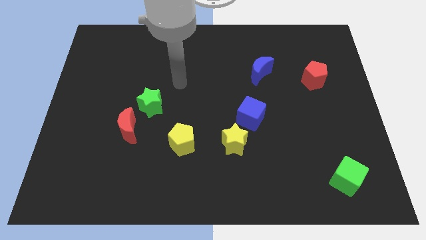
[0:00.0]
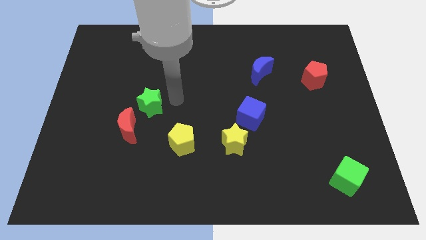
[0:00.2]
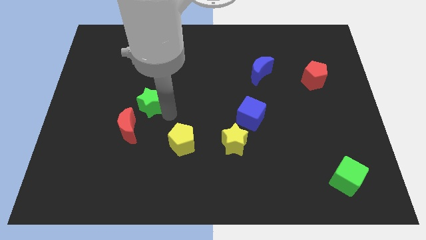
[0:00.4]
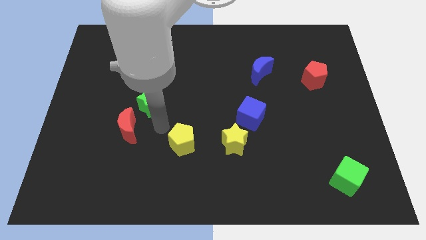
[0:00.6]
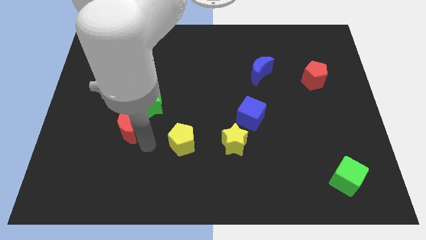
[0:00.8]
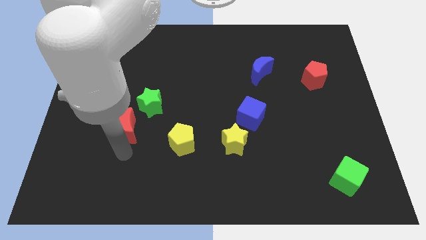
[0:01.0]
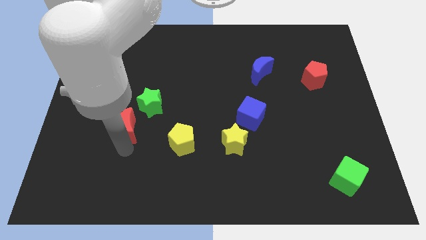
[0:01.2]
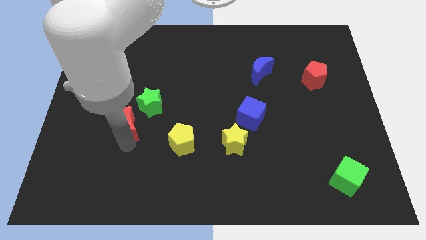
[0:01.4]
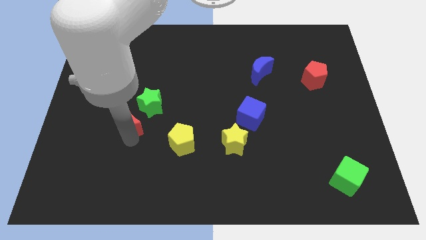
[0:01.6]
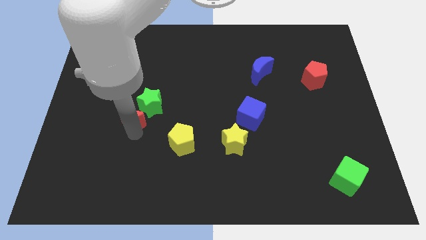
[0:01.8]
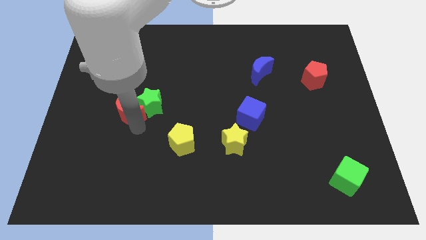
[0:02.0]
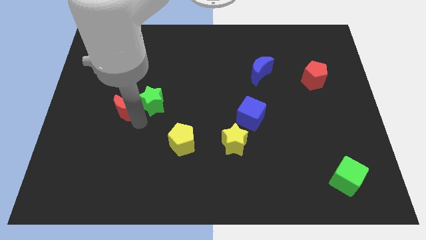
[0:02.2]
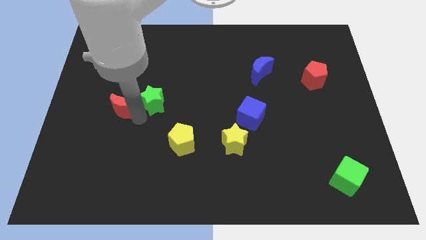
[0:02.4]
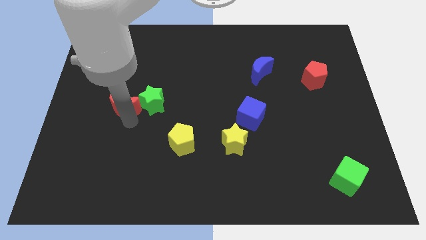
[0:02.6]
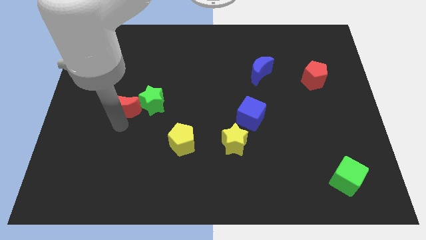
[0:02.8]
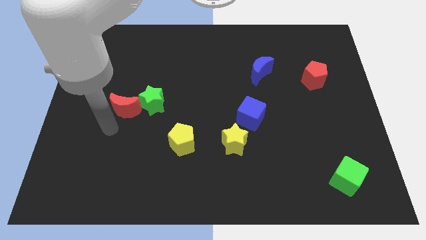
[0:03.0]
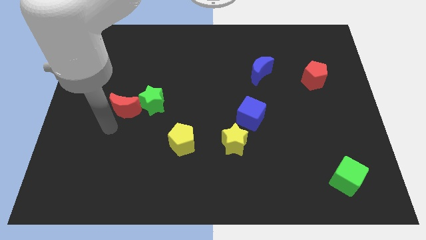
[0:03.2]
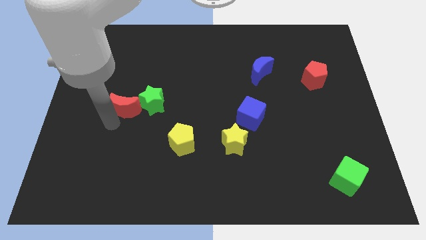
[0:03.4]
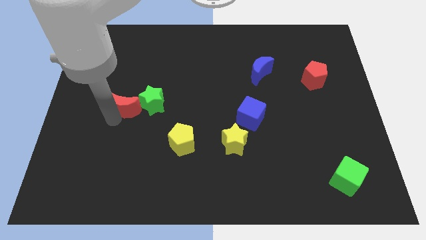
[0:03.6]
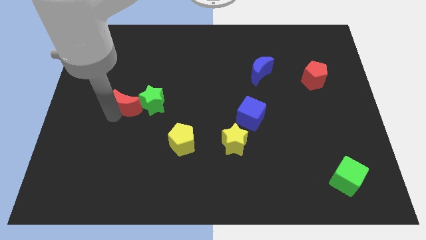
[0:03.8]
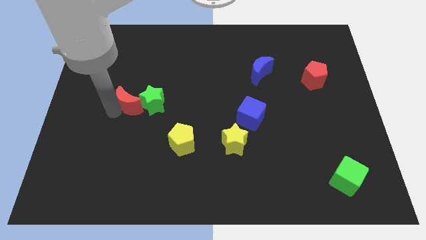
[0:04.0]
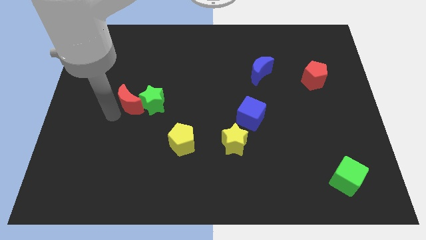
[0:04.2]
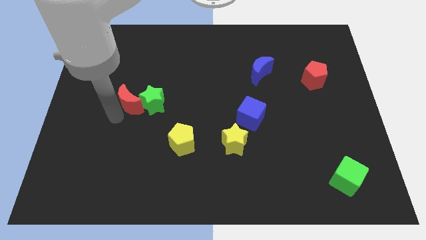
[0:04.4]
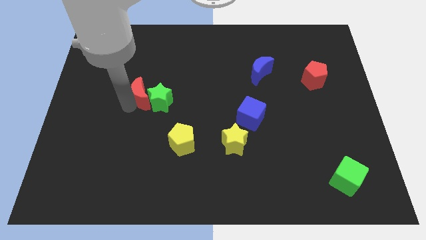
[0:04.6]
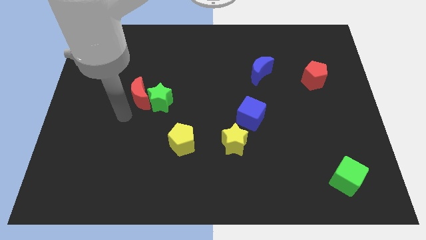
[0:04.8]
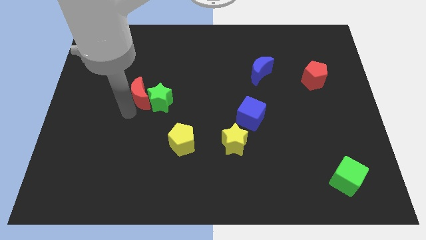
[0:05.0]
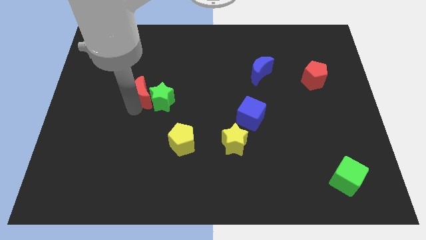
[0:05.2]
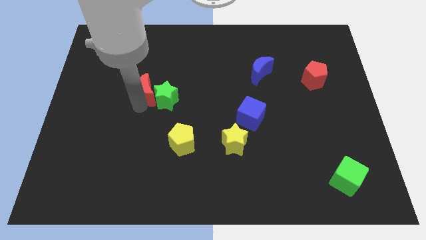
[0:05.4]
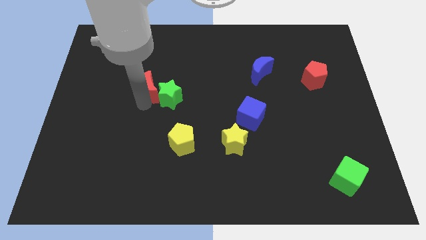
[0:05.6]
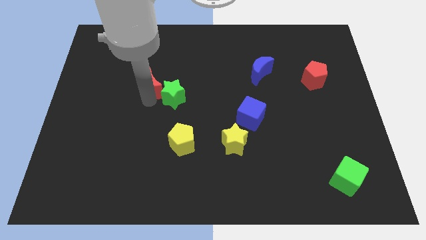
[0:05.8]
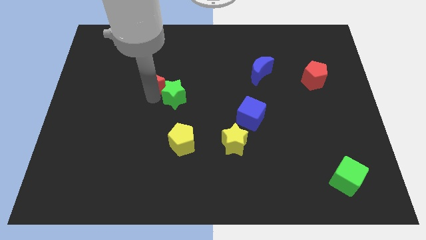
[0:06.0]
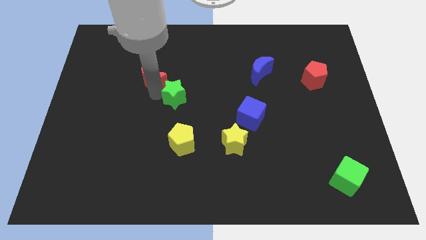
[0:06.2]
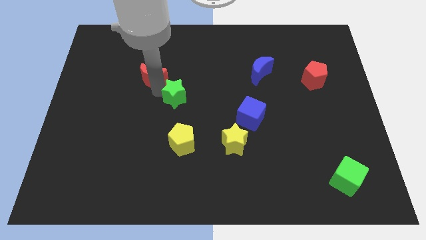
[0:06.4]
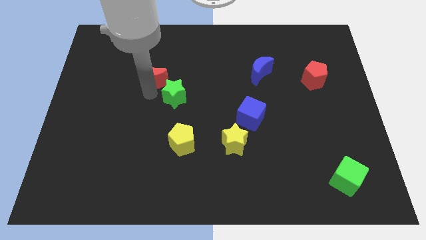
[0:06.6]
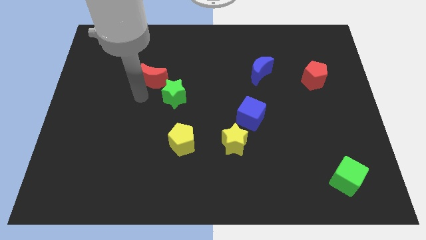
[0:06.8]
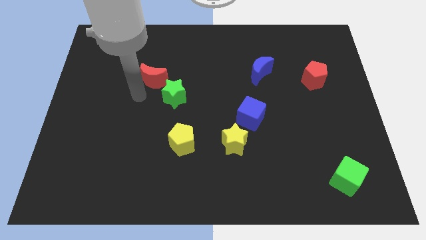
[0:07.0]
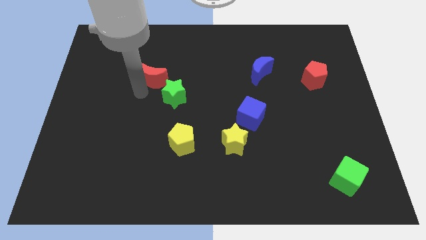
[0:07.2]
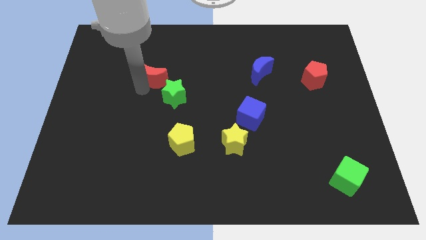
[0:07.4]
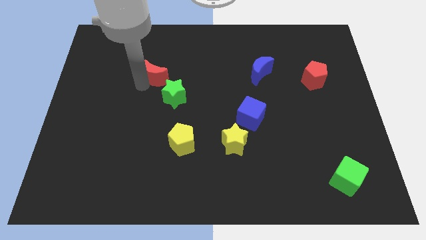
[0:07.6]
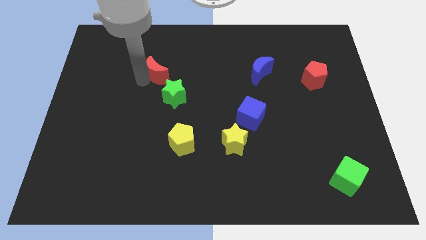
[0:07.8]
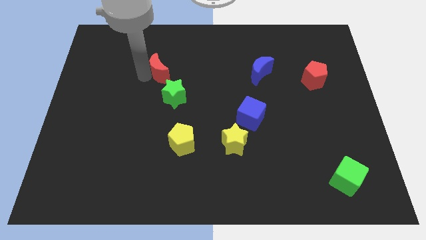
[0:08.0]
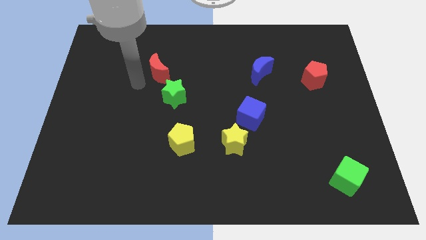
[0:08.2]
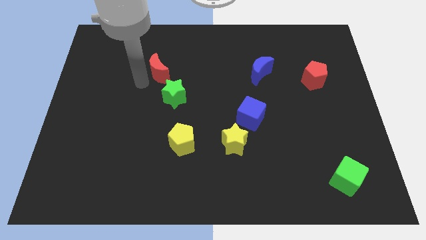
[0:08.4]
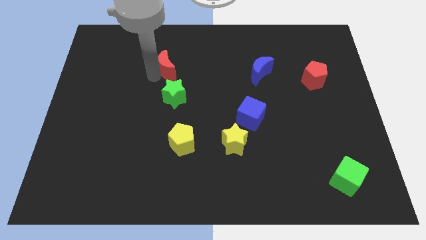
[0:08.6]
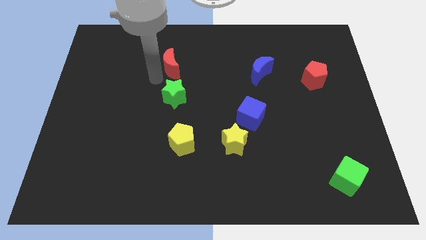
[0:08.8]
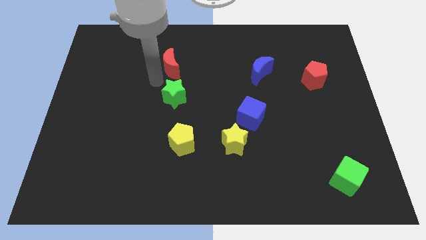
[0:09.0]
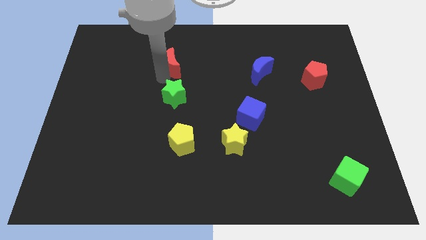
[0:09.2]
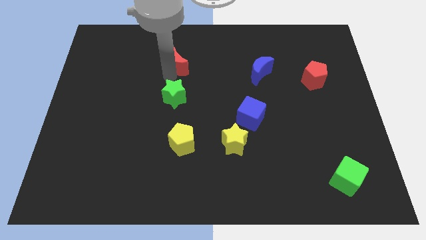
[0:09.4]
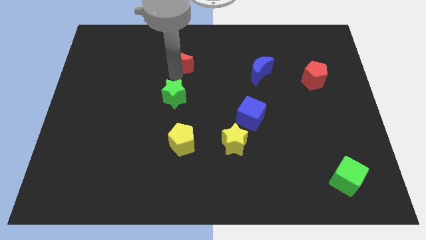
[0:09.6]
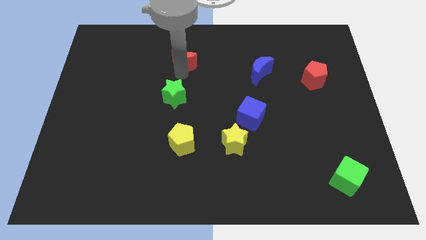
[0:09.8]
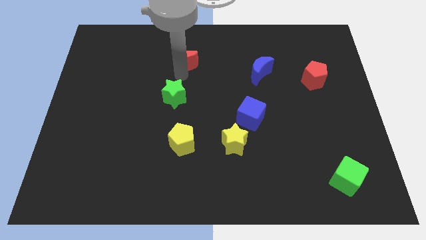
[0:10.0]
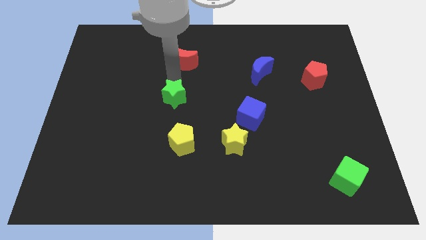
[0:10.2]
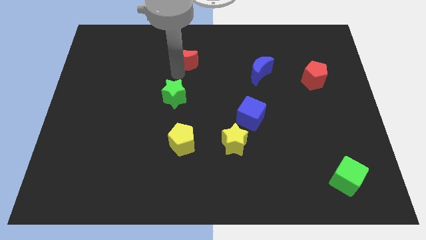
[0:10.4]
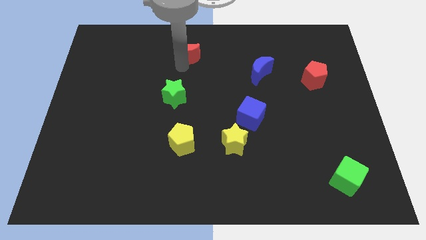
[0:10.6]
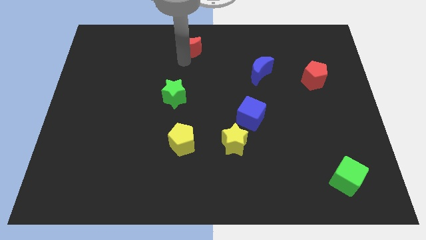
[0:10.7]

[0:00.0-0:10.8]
move the red moon to the top

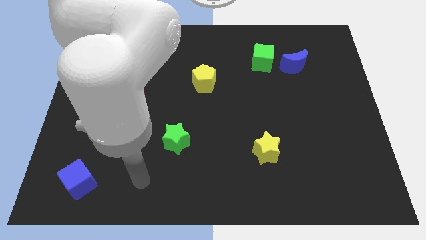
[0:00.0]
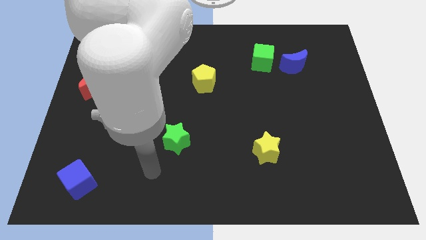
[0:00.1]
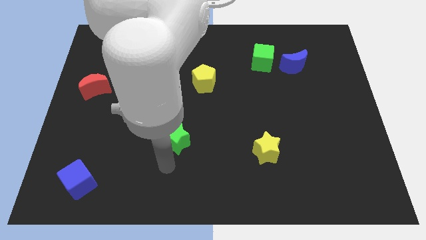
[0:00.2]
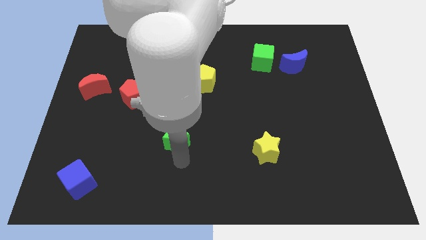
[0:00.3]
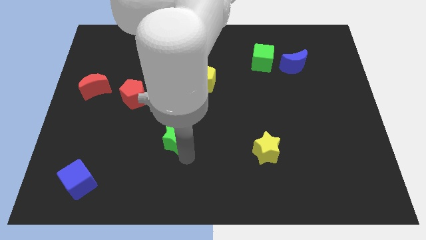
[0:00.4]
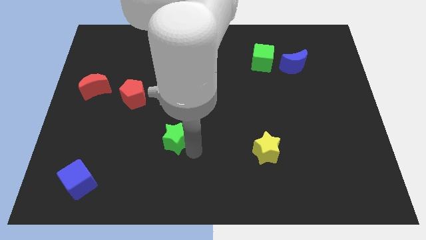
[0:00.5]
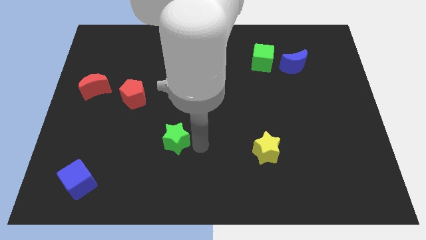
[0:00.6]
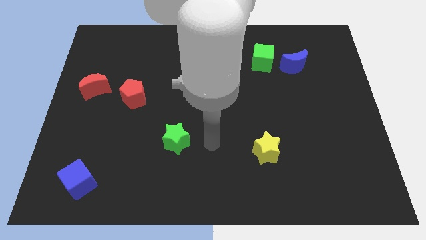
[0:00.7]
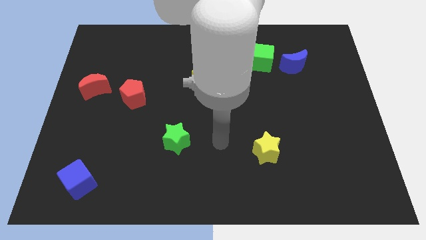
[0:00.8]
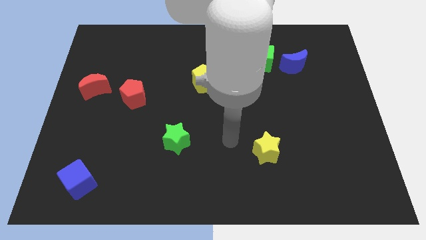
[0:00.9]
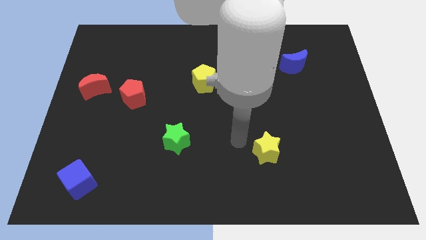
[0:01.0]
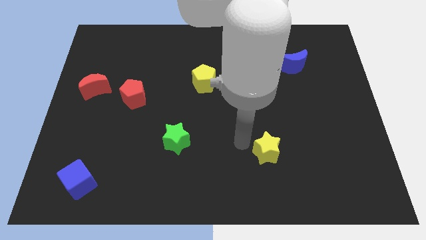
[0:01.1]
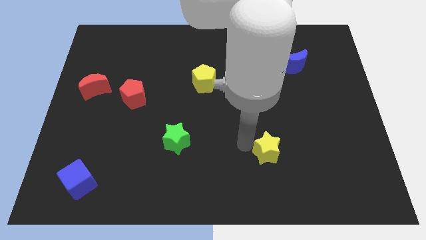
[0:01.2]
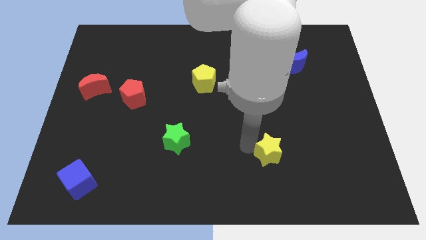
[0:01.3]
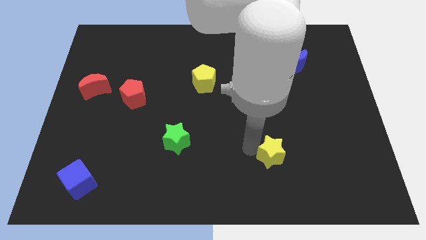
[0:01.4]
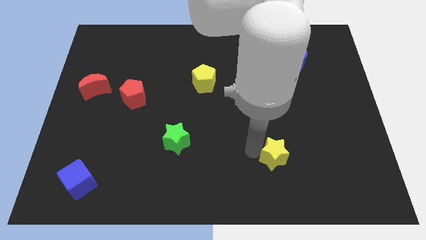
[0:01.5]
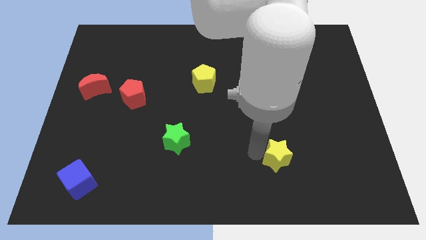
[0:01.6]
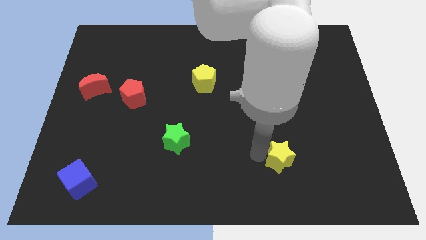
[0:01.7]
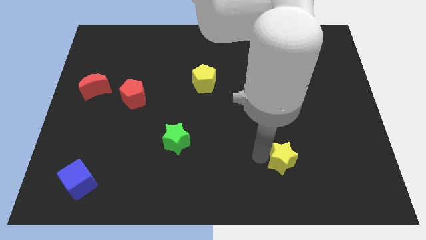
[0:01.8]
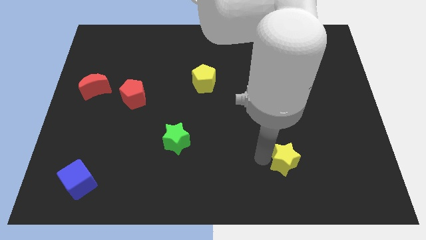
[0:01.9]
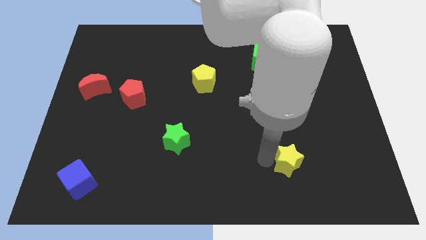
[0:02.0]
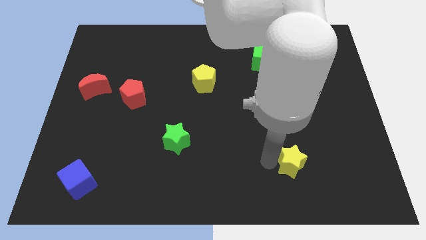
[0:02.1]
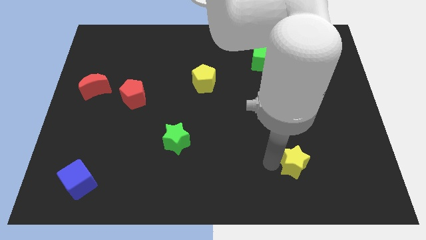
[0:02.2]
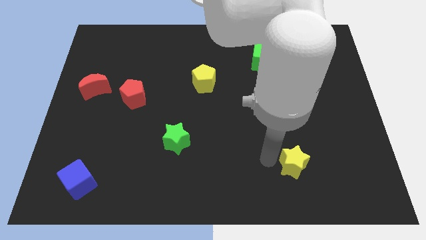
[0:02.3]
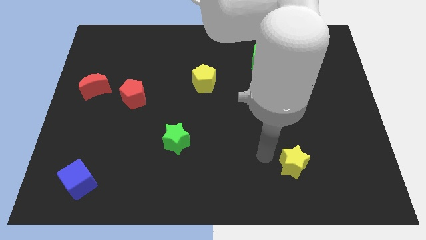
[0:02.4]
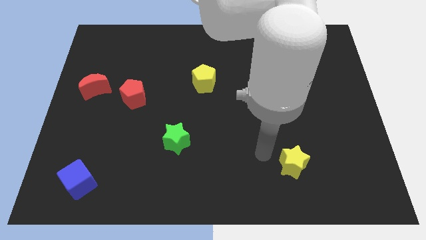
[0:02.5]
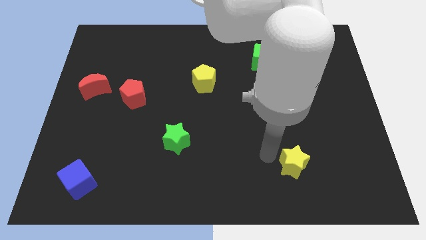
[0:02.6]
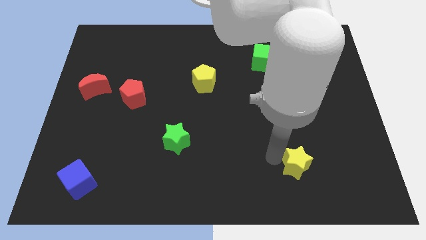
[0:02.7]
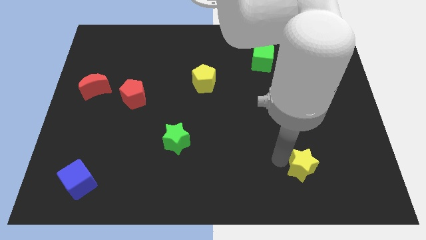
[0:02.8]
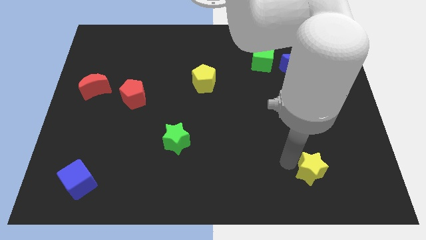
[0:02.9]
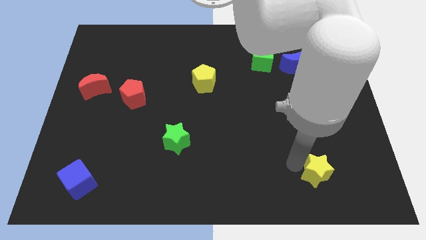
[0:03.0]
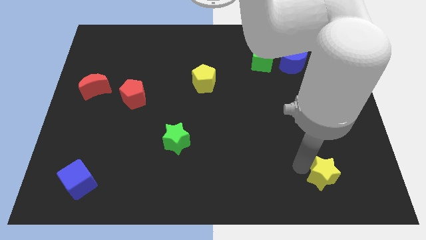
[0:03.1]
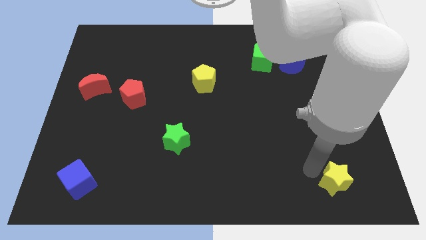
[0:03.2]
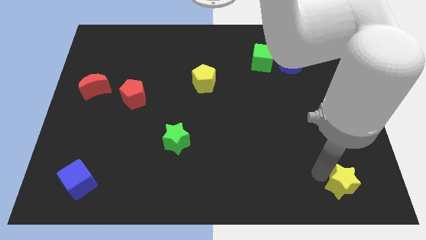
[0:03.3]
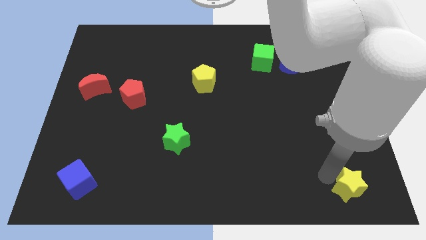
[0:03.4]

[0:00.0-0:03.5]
move the yellow star to the bottom right of the board
